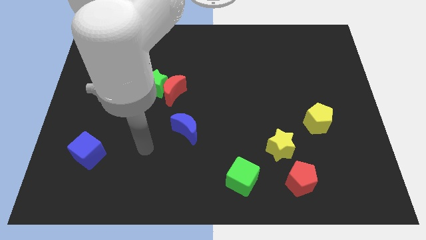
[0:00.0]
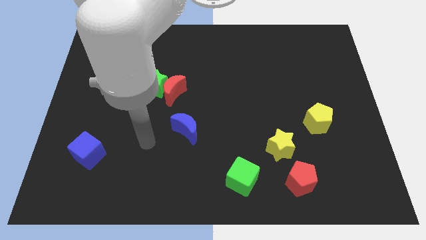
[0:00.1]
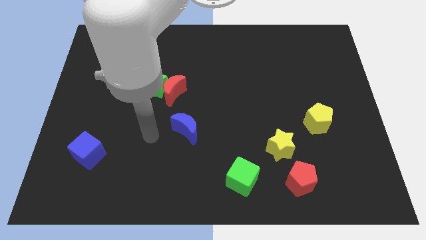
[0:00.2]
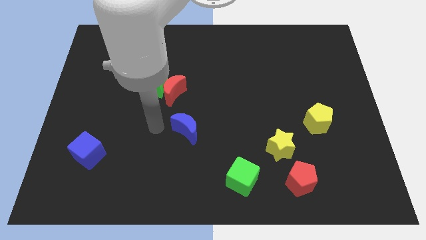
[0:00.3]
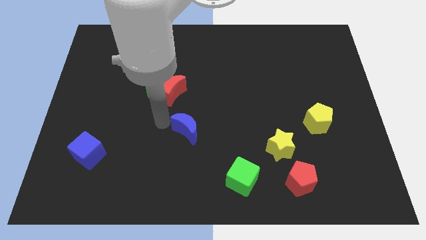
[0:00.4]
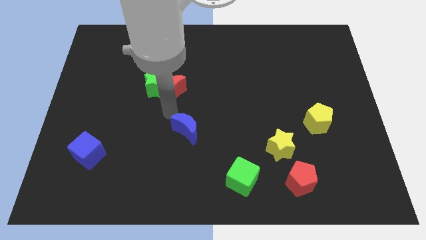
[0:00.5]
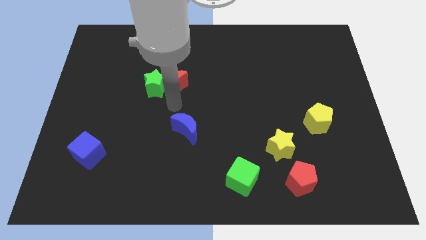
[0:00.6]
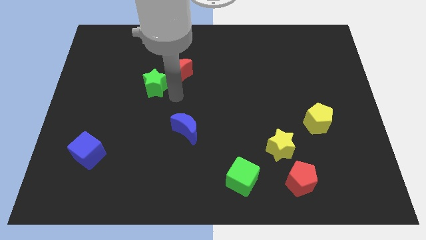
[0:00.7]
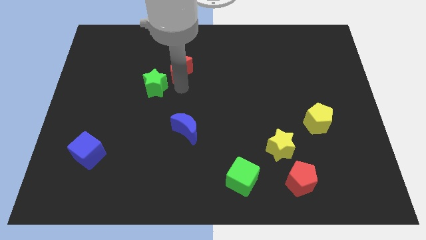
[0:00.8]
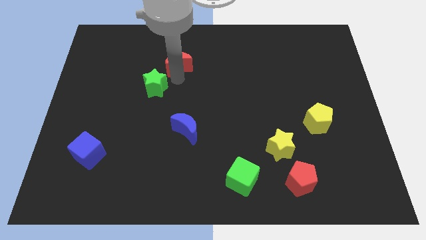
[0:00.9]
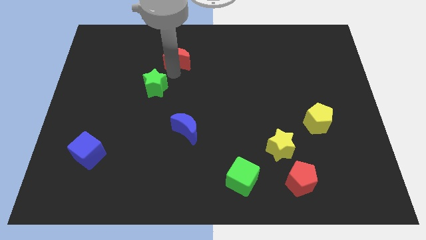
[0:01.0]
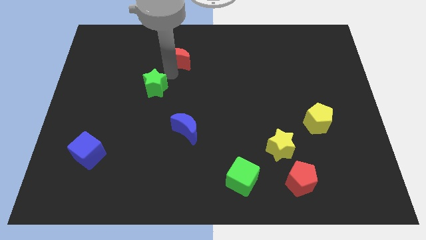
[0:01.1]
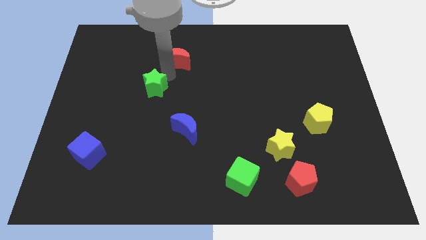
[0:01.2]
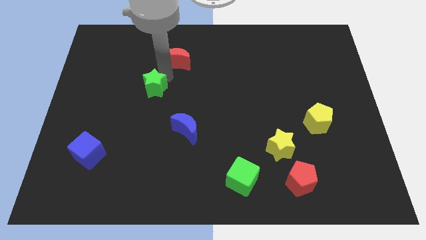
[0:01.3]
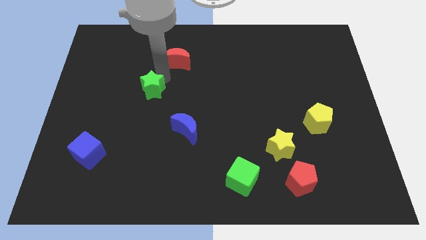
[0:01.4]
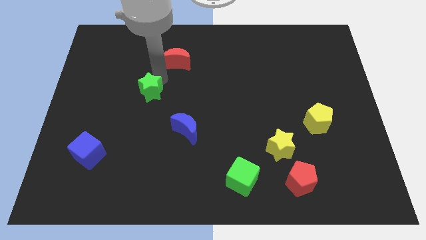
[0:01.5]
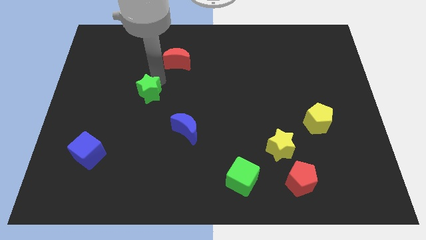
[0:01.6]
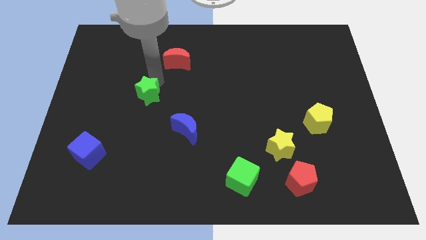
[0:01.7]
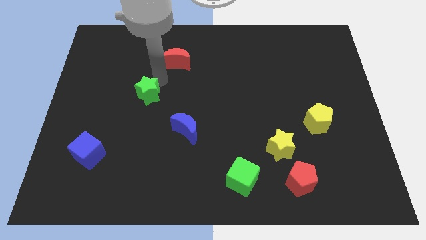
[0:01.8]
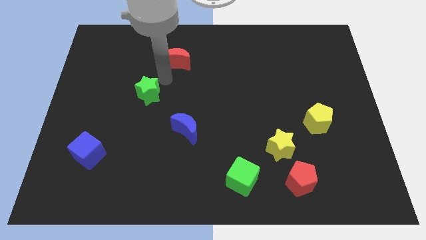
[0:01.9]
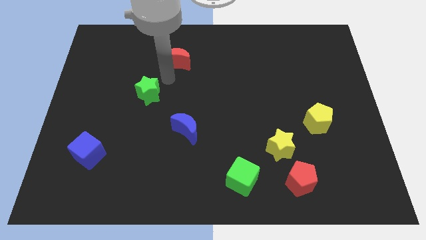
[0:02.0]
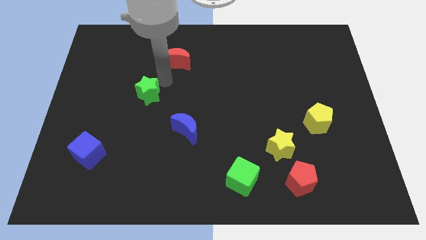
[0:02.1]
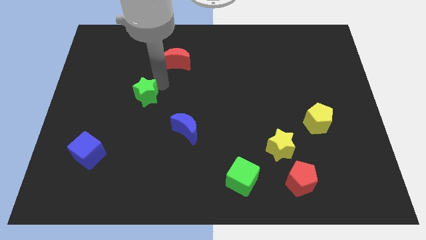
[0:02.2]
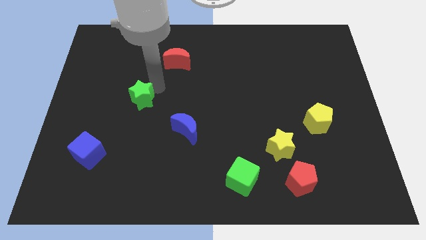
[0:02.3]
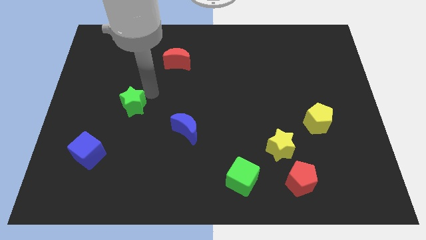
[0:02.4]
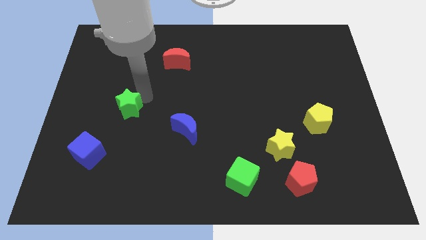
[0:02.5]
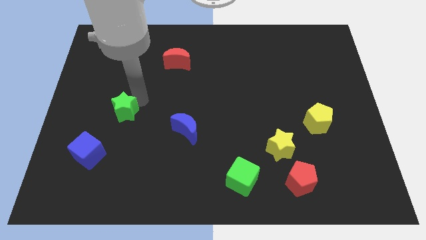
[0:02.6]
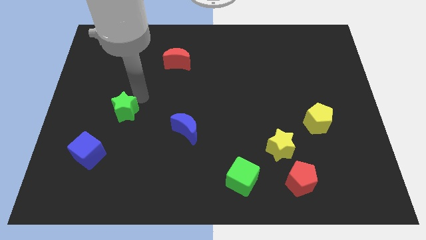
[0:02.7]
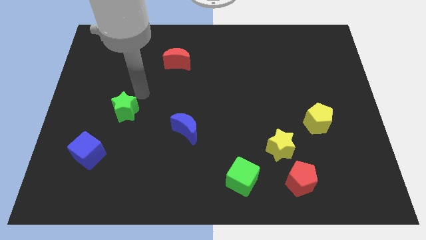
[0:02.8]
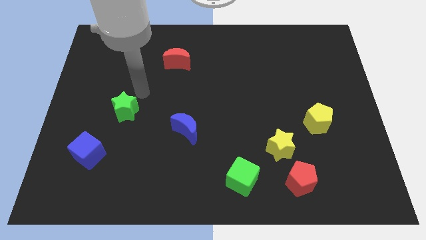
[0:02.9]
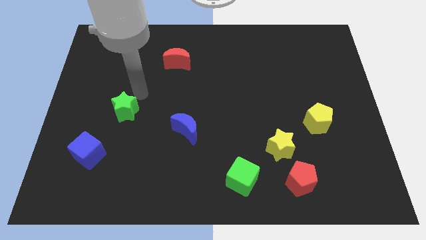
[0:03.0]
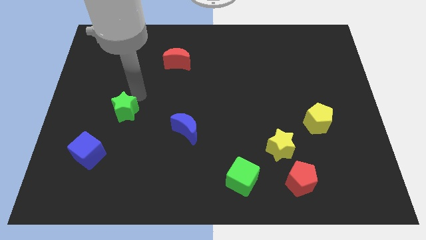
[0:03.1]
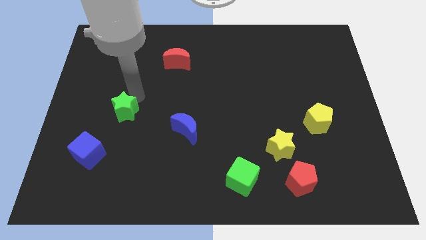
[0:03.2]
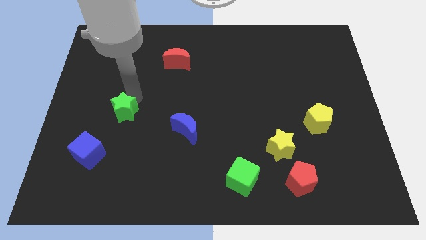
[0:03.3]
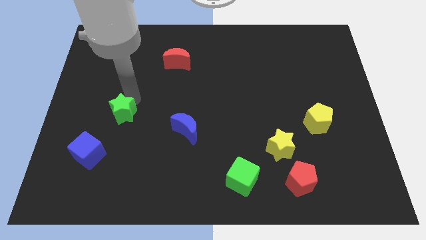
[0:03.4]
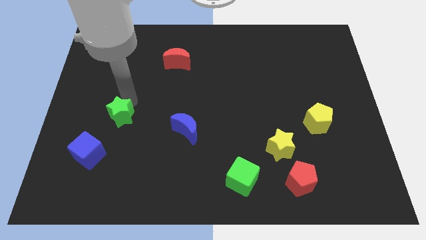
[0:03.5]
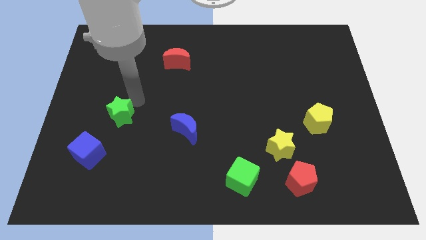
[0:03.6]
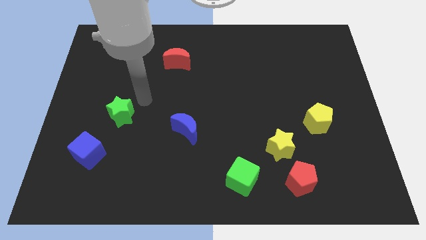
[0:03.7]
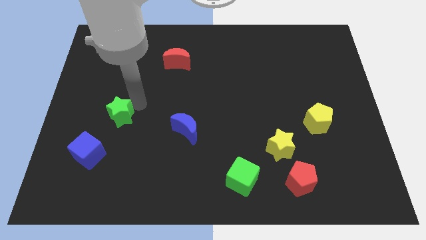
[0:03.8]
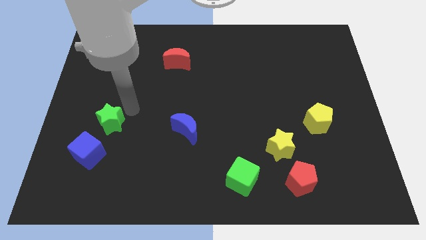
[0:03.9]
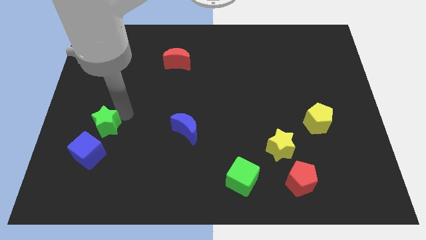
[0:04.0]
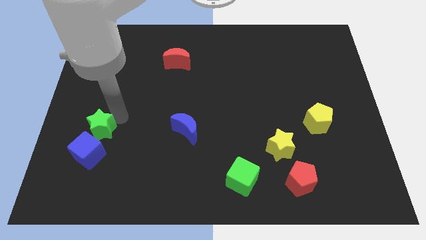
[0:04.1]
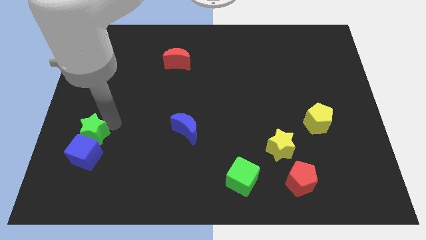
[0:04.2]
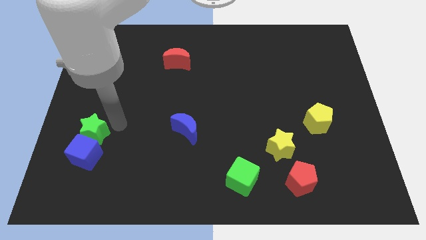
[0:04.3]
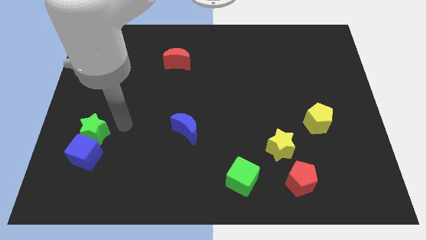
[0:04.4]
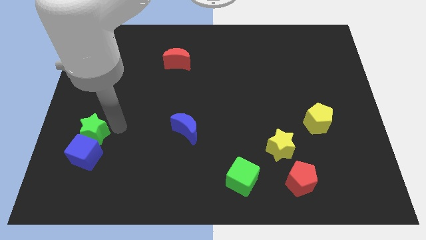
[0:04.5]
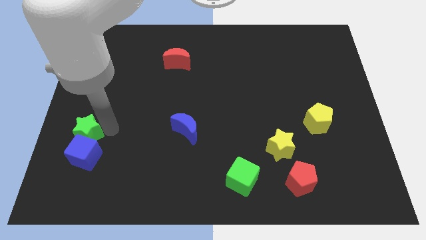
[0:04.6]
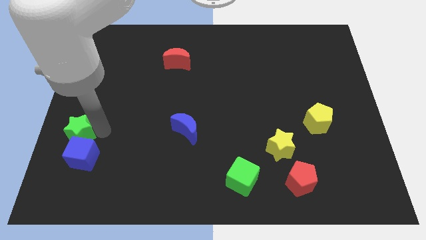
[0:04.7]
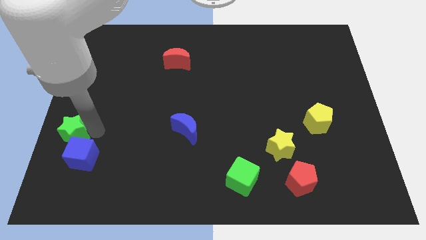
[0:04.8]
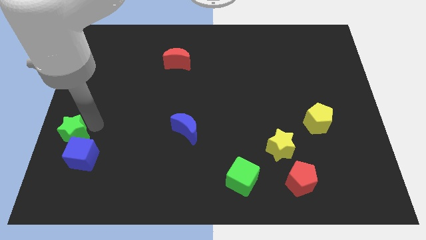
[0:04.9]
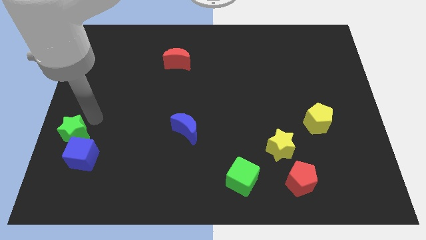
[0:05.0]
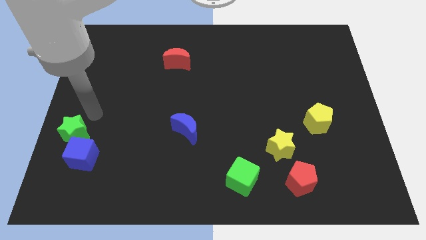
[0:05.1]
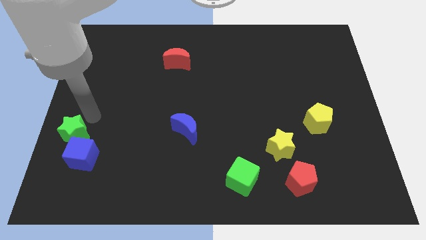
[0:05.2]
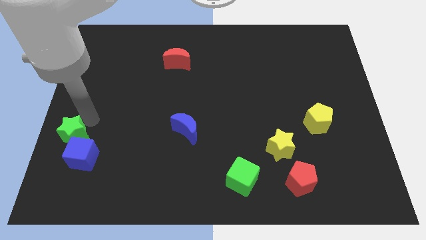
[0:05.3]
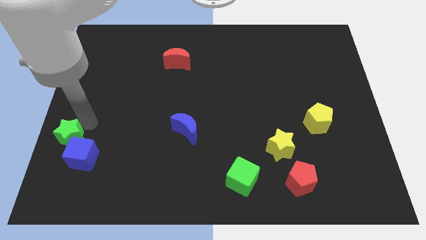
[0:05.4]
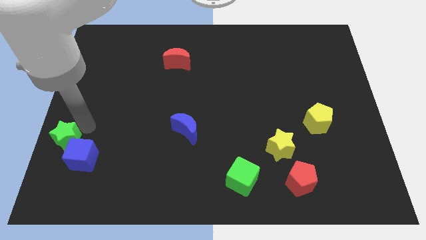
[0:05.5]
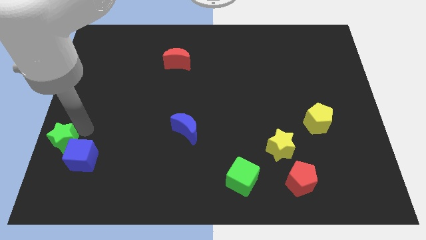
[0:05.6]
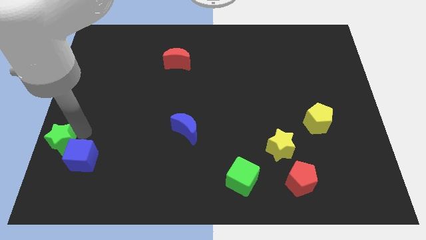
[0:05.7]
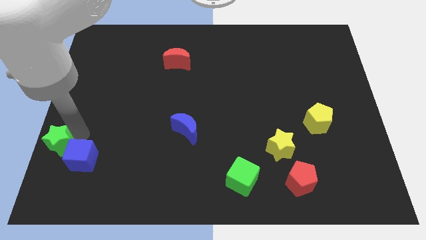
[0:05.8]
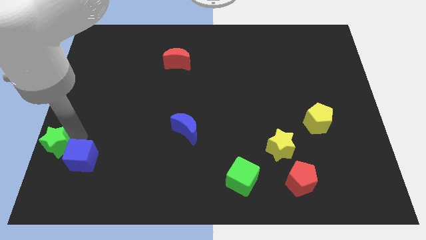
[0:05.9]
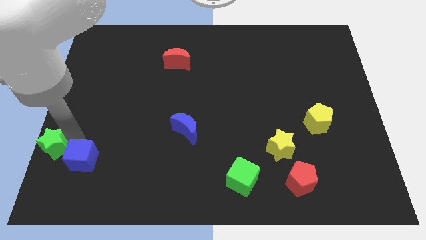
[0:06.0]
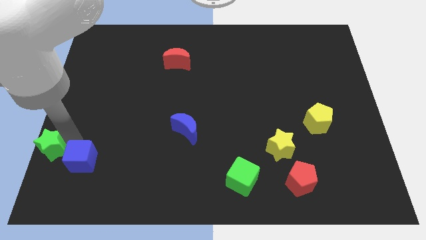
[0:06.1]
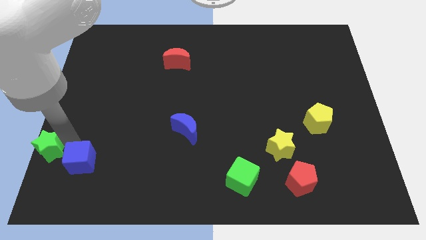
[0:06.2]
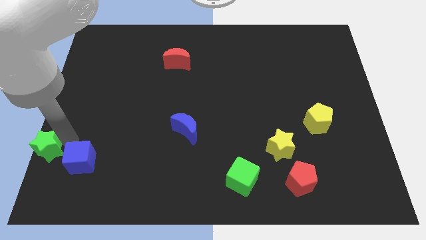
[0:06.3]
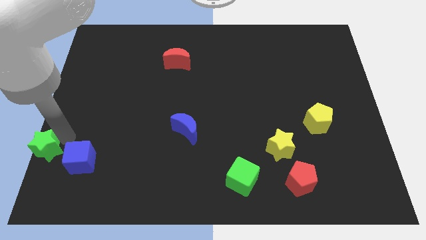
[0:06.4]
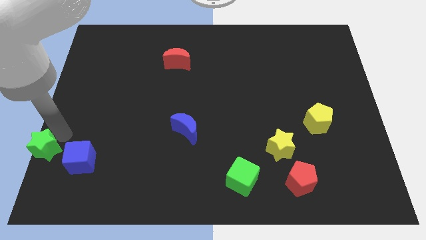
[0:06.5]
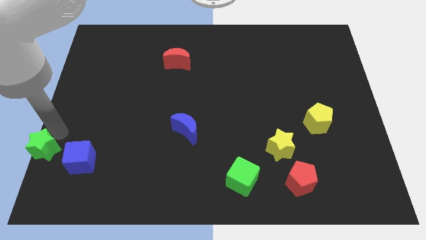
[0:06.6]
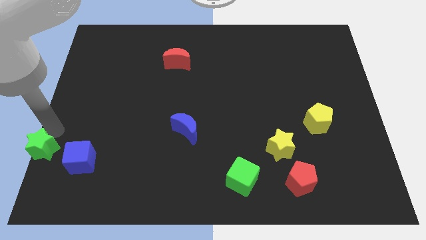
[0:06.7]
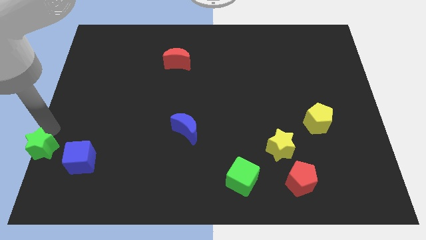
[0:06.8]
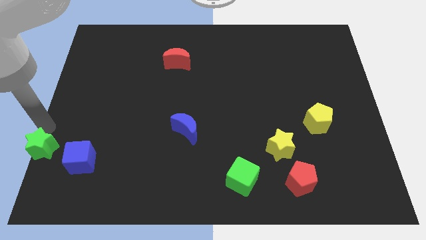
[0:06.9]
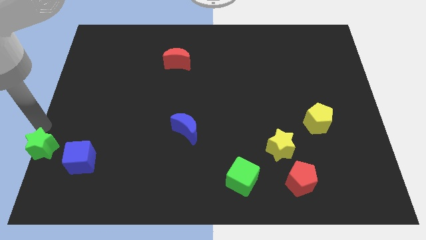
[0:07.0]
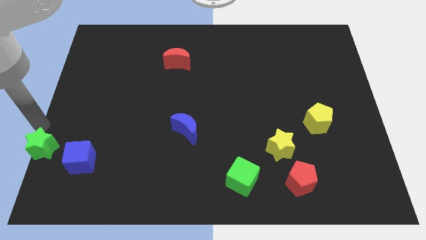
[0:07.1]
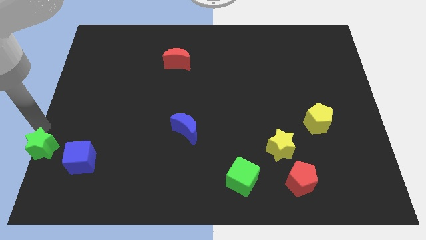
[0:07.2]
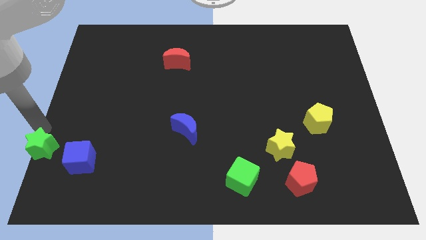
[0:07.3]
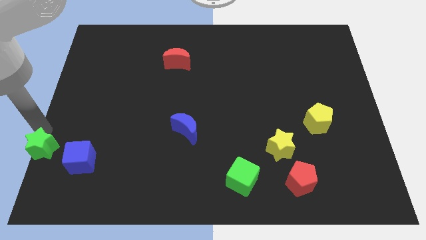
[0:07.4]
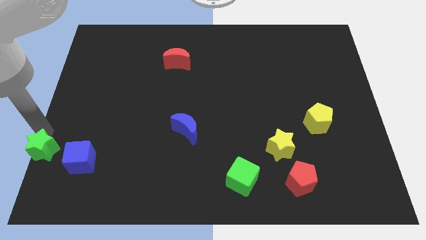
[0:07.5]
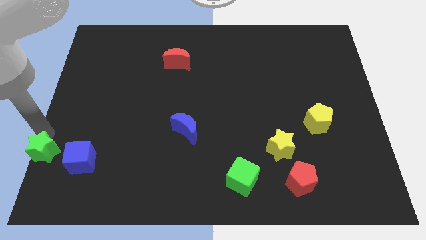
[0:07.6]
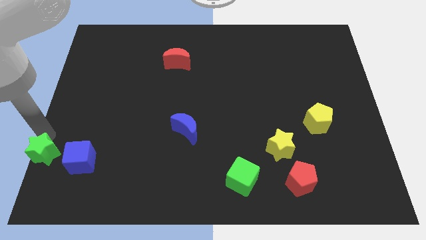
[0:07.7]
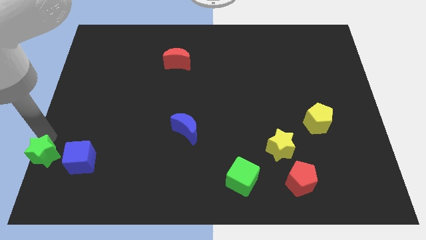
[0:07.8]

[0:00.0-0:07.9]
move the green star to the lower left corner
